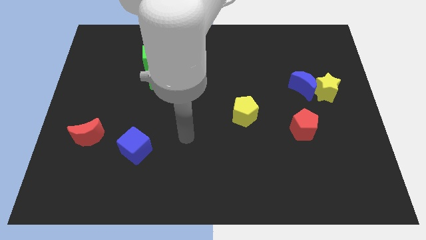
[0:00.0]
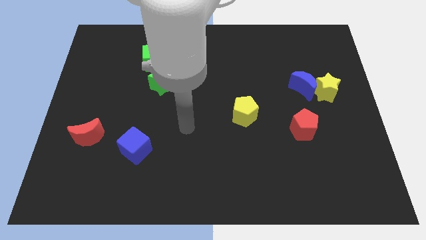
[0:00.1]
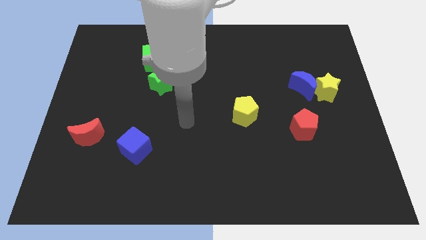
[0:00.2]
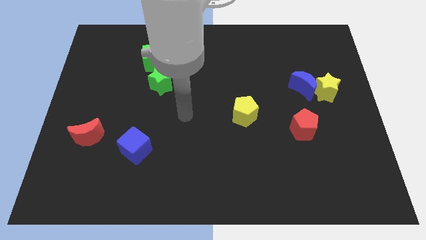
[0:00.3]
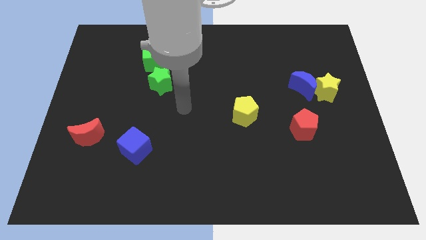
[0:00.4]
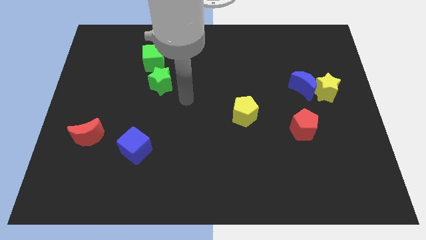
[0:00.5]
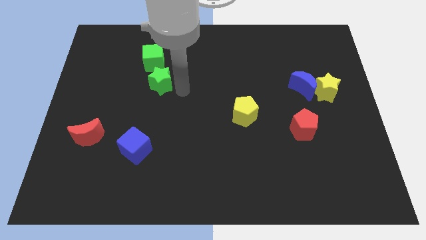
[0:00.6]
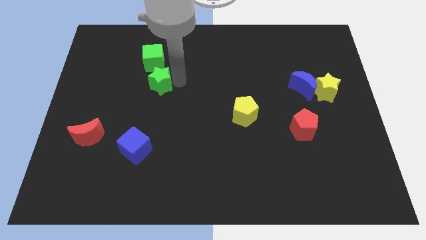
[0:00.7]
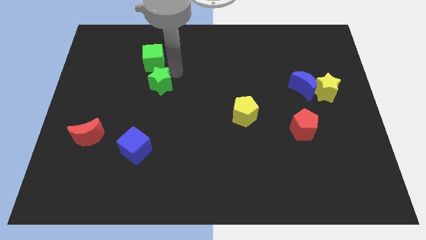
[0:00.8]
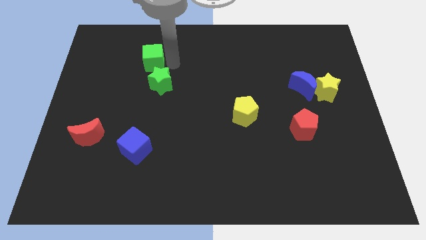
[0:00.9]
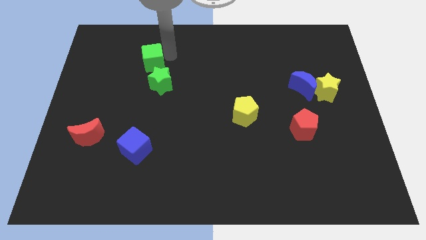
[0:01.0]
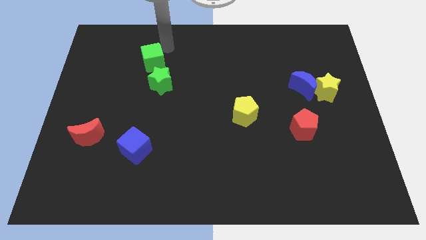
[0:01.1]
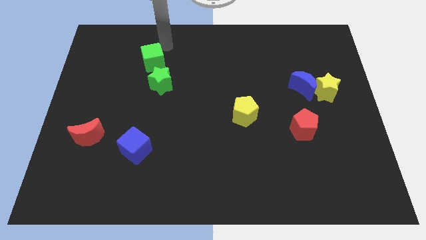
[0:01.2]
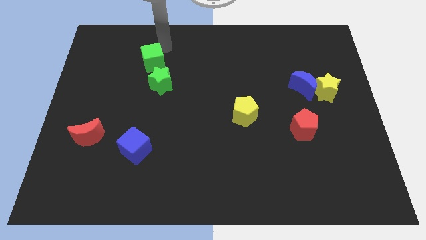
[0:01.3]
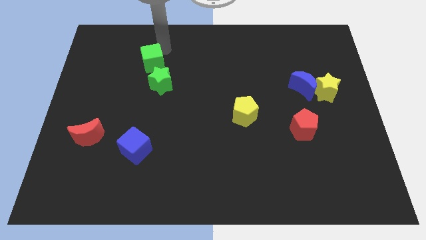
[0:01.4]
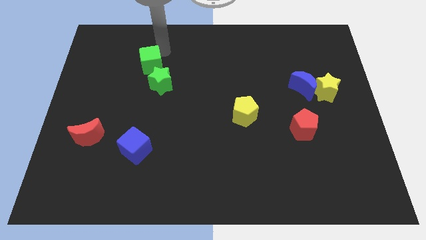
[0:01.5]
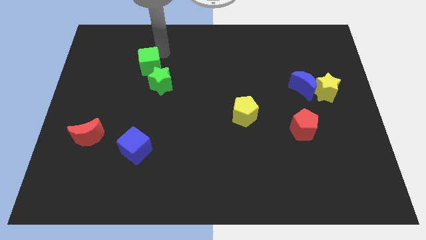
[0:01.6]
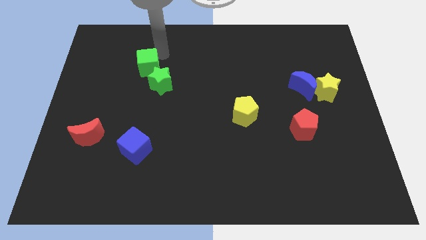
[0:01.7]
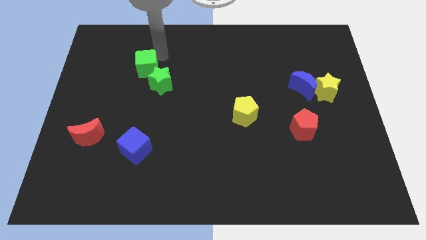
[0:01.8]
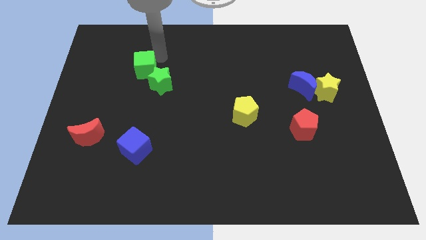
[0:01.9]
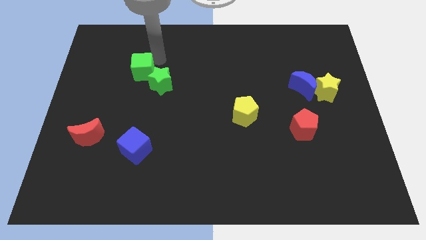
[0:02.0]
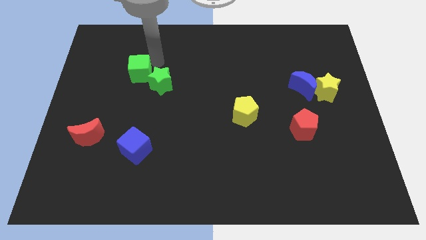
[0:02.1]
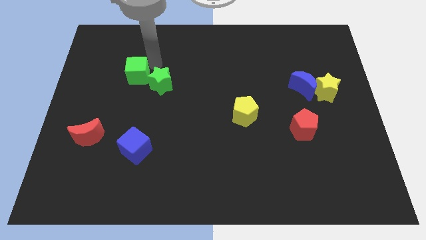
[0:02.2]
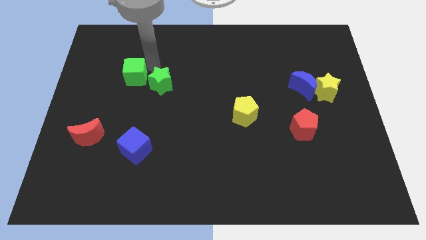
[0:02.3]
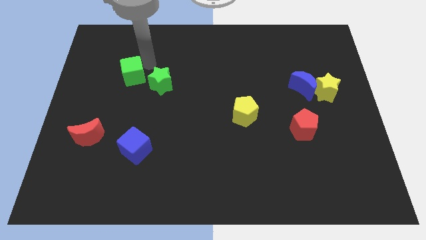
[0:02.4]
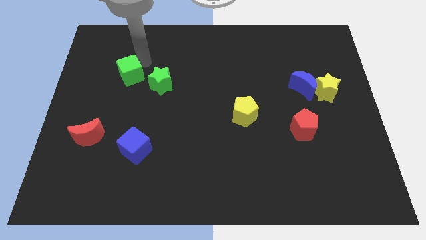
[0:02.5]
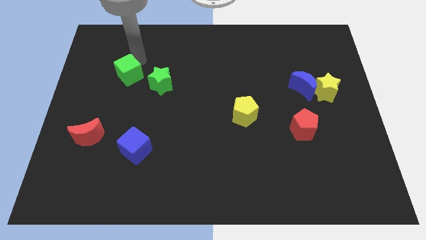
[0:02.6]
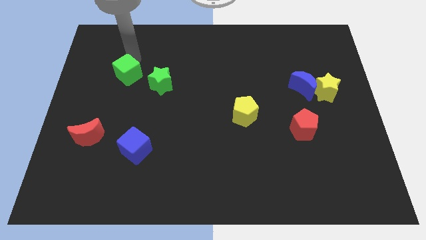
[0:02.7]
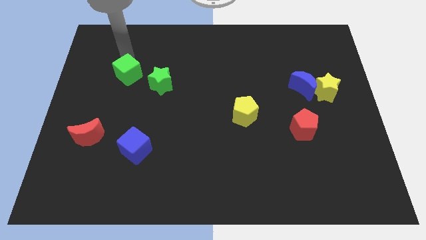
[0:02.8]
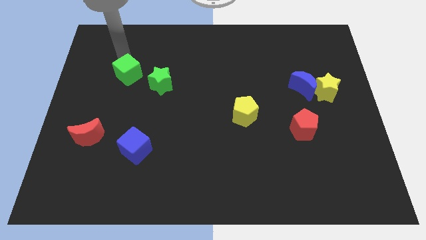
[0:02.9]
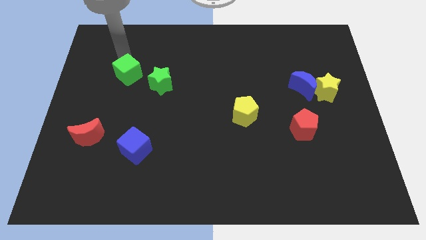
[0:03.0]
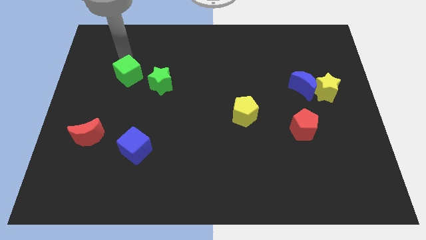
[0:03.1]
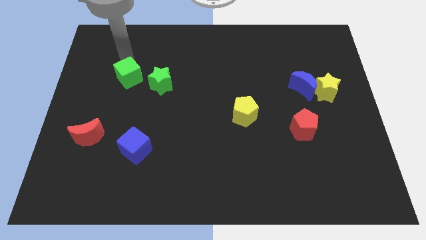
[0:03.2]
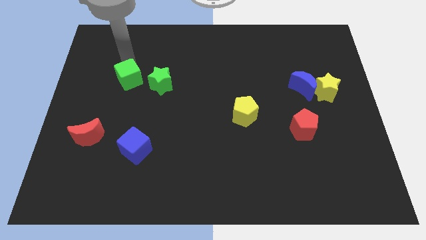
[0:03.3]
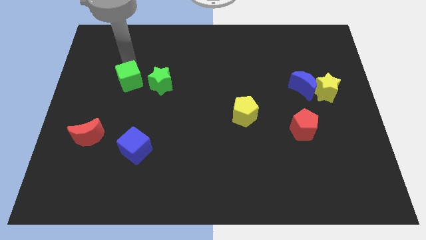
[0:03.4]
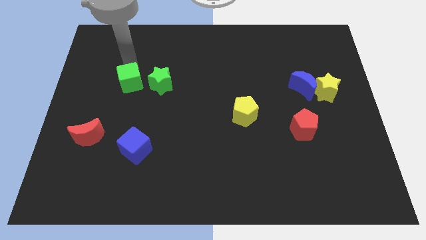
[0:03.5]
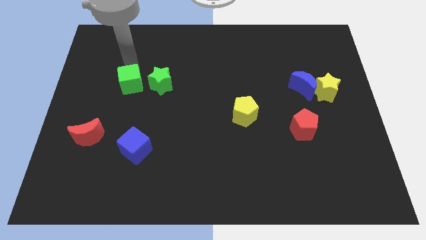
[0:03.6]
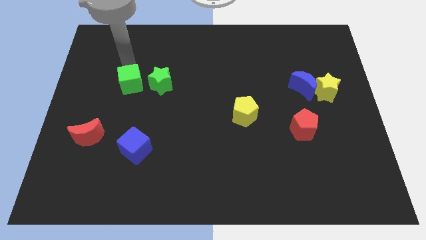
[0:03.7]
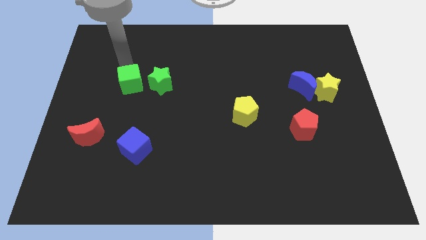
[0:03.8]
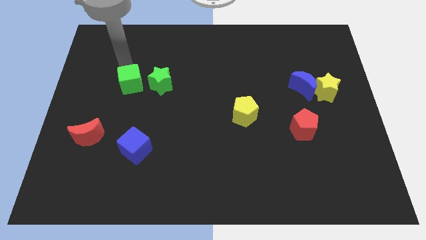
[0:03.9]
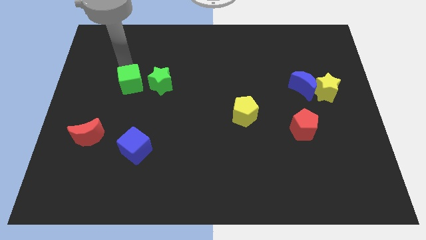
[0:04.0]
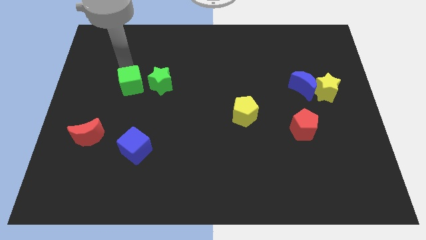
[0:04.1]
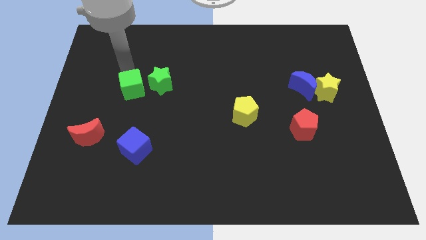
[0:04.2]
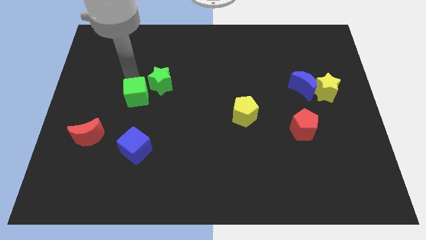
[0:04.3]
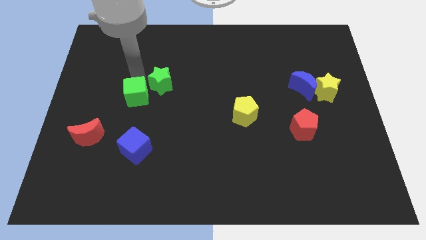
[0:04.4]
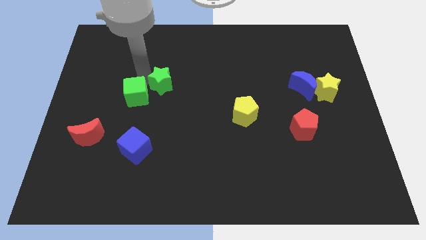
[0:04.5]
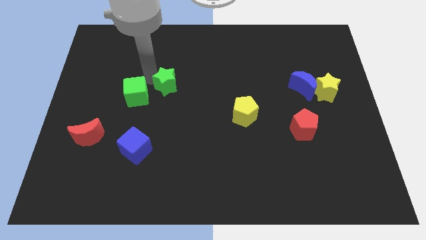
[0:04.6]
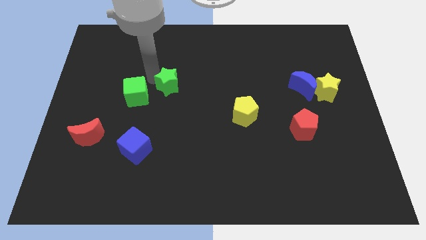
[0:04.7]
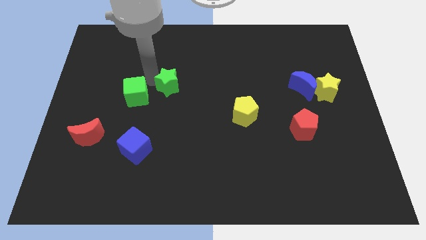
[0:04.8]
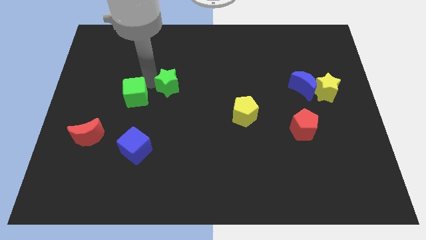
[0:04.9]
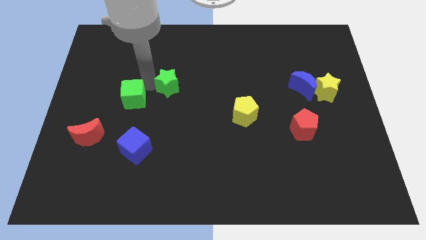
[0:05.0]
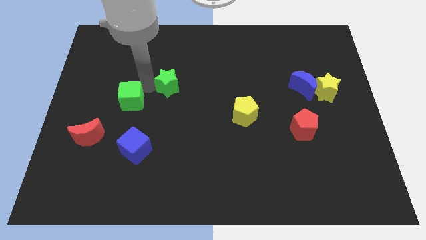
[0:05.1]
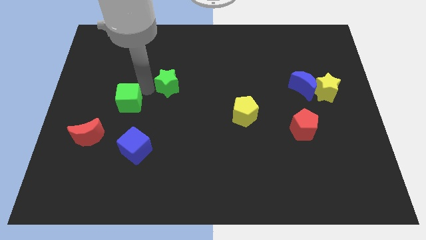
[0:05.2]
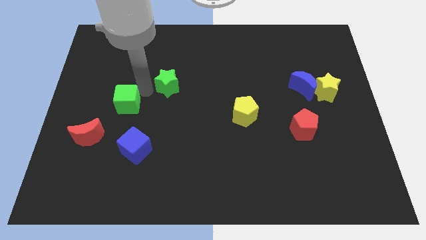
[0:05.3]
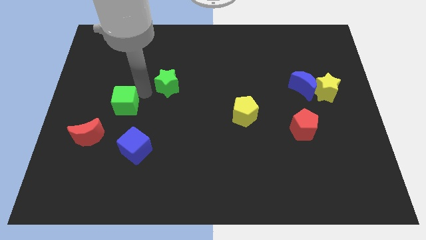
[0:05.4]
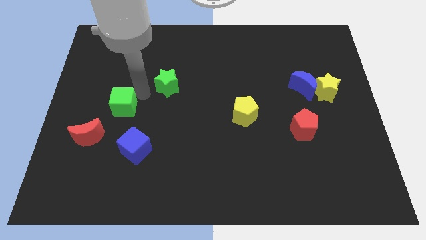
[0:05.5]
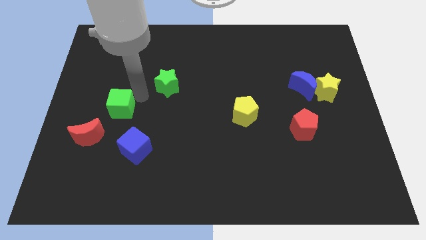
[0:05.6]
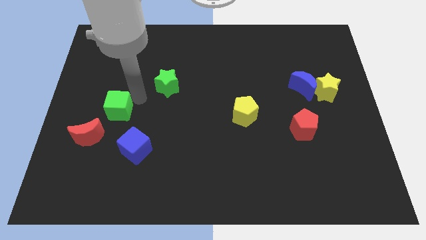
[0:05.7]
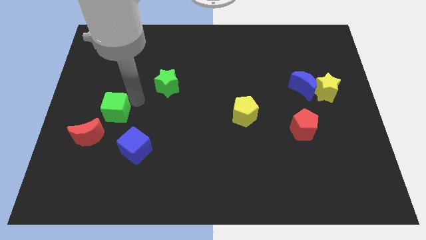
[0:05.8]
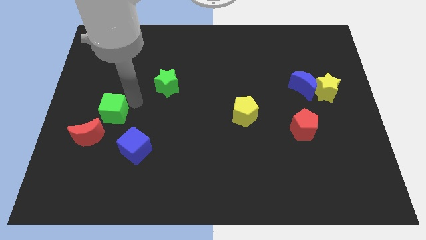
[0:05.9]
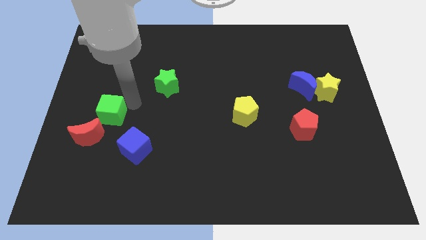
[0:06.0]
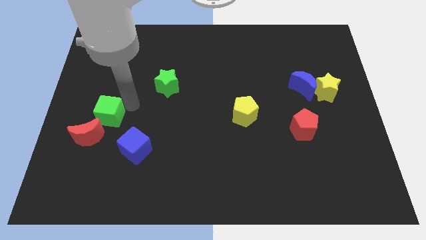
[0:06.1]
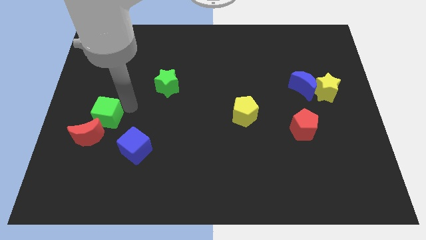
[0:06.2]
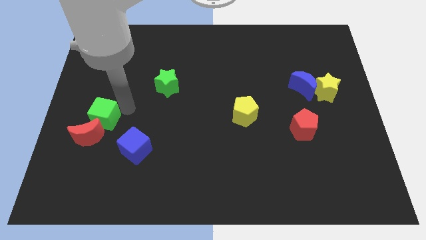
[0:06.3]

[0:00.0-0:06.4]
push the green cube towards the red moon

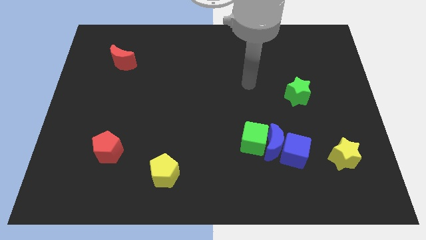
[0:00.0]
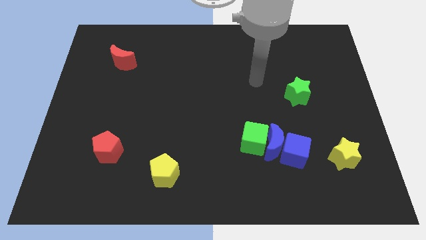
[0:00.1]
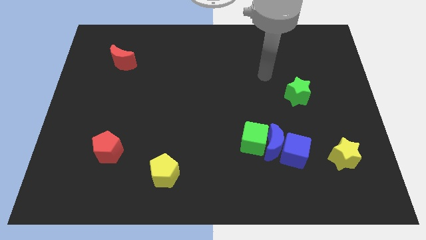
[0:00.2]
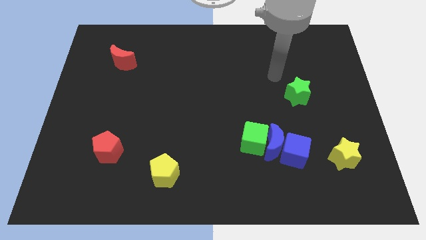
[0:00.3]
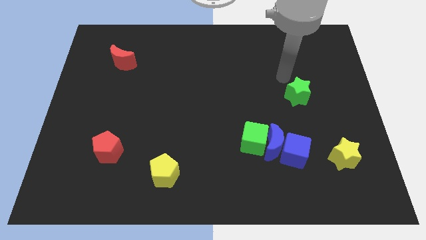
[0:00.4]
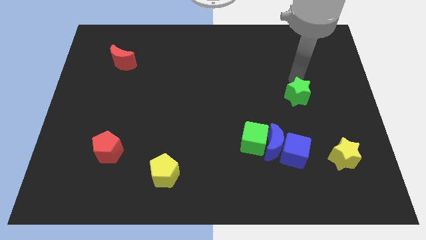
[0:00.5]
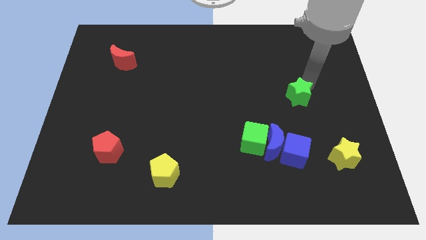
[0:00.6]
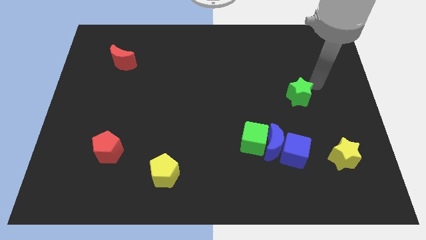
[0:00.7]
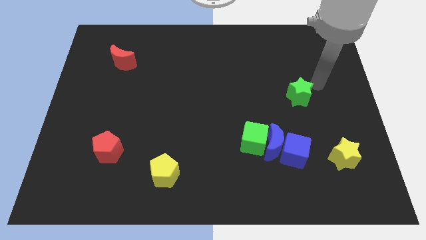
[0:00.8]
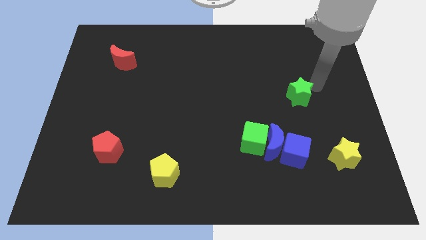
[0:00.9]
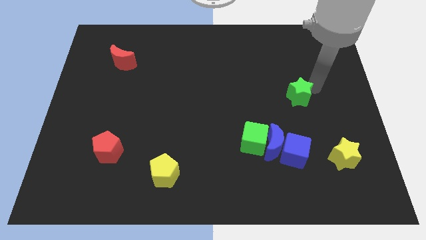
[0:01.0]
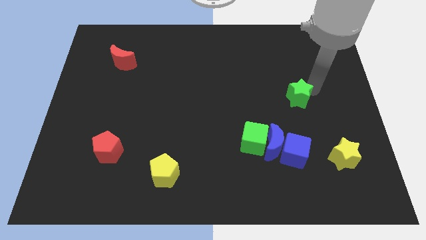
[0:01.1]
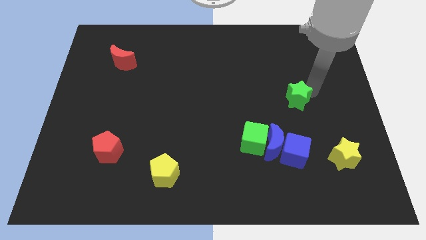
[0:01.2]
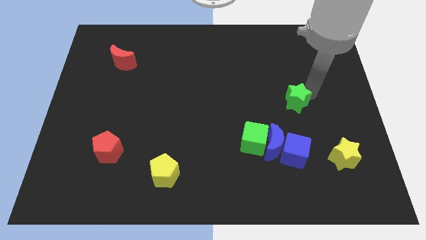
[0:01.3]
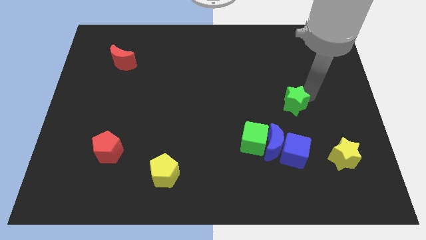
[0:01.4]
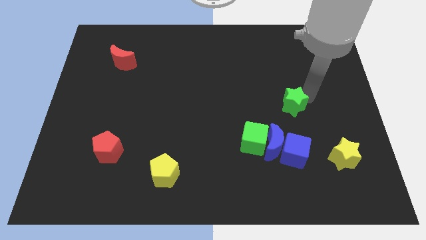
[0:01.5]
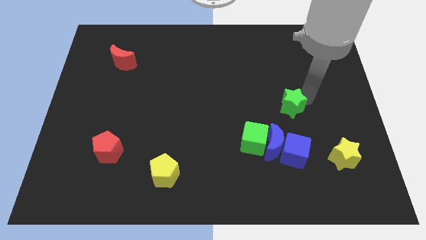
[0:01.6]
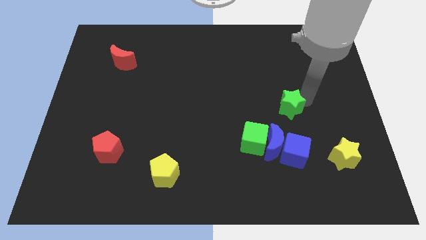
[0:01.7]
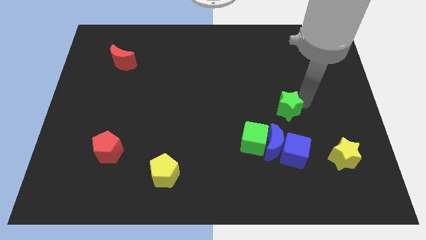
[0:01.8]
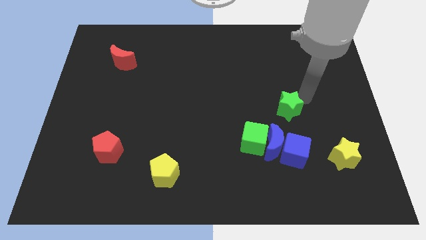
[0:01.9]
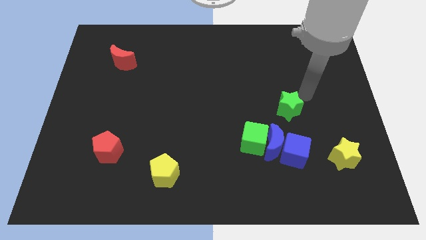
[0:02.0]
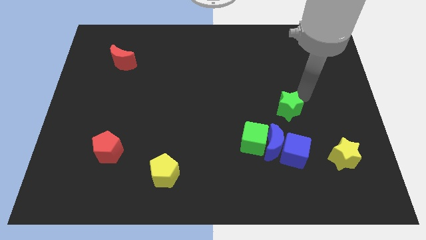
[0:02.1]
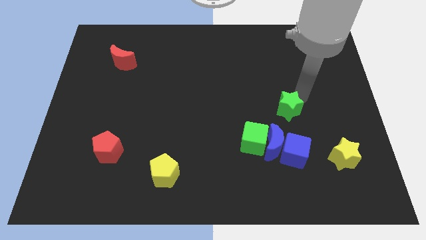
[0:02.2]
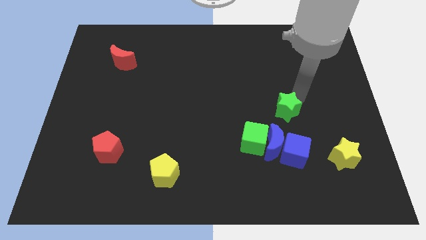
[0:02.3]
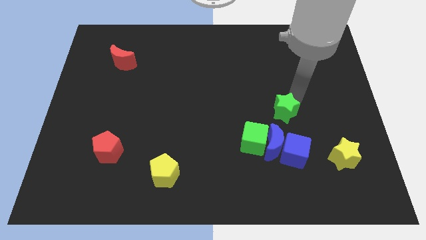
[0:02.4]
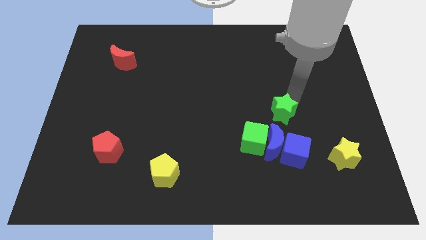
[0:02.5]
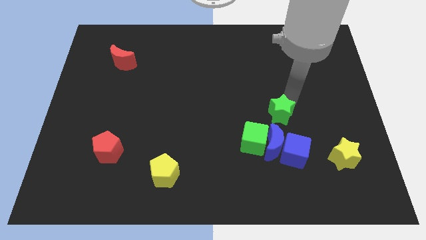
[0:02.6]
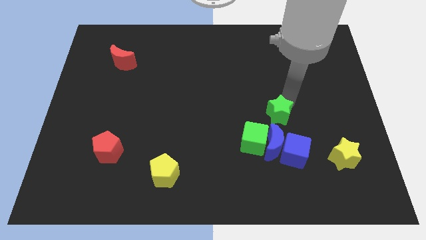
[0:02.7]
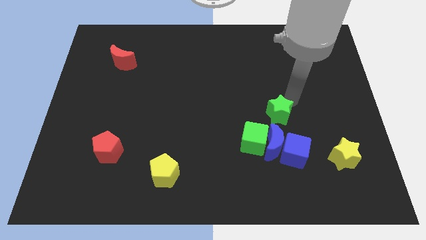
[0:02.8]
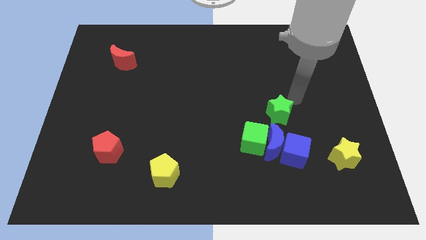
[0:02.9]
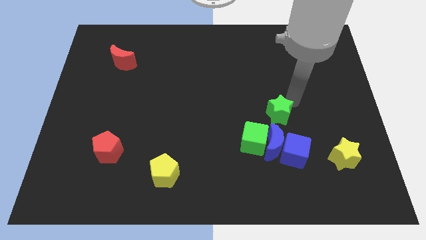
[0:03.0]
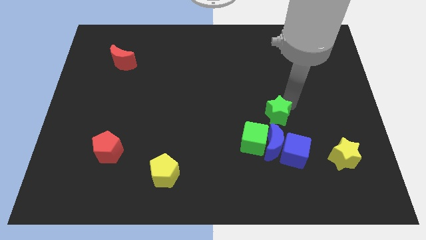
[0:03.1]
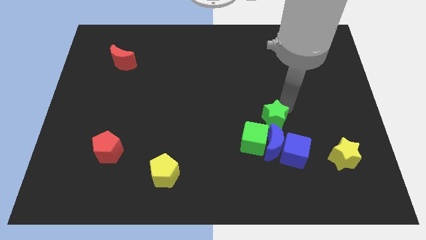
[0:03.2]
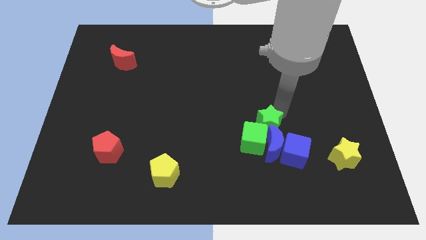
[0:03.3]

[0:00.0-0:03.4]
move the green star close to the green cube
